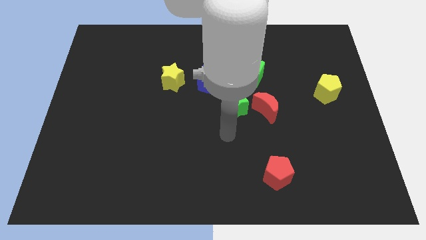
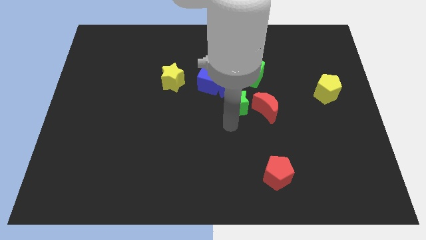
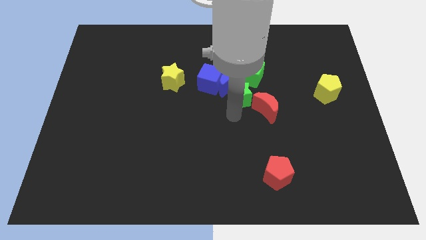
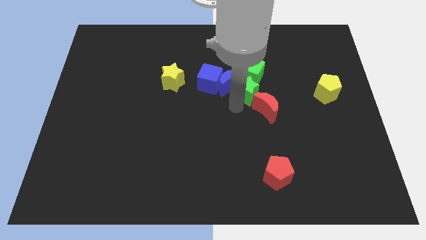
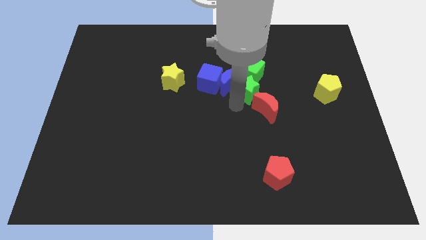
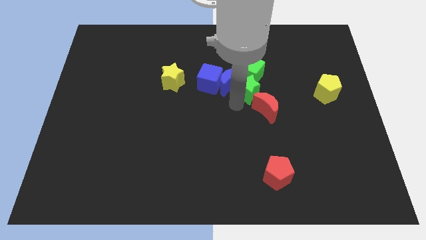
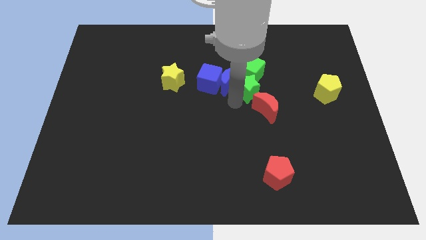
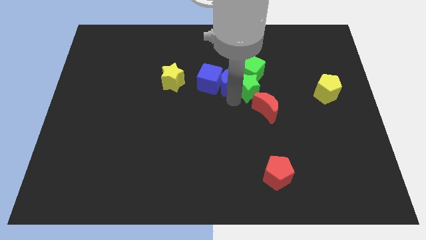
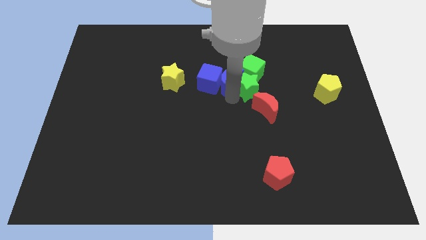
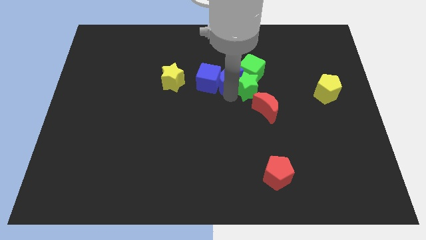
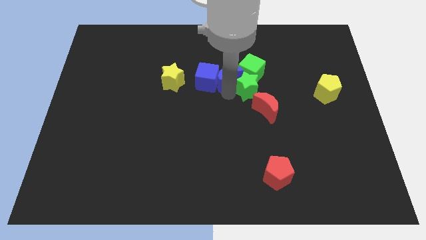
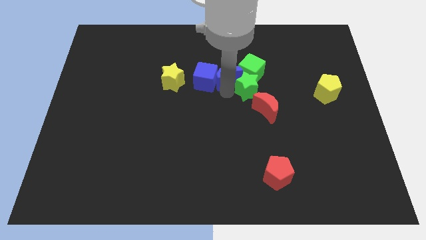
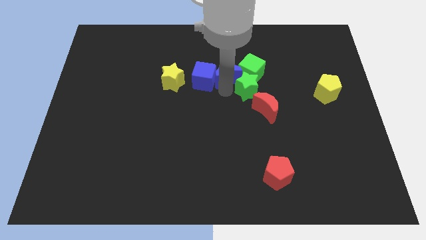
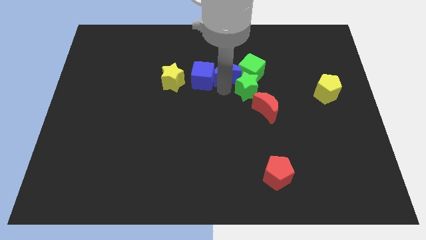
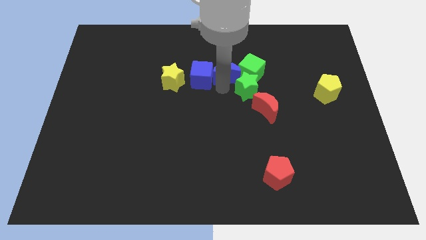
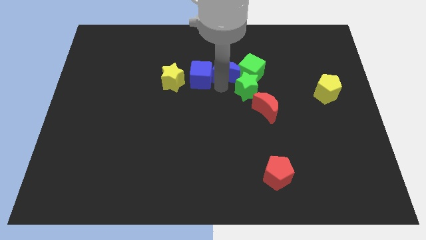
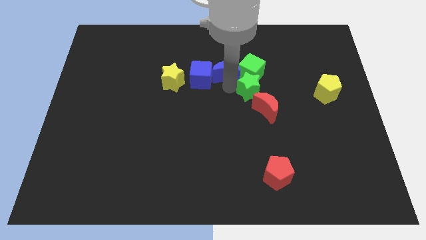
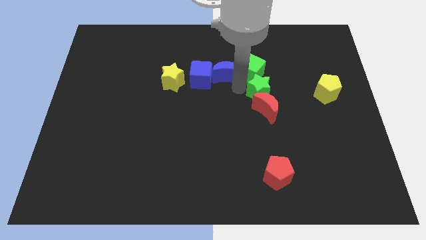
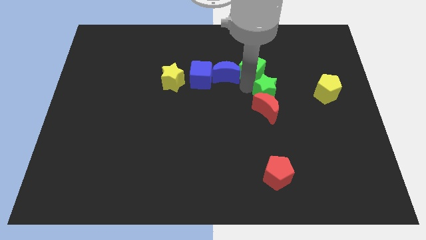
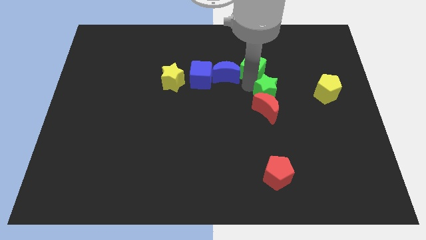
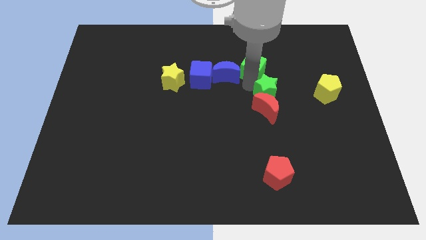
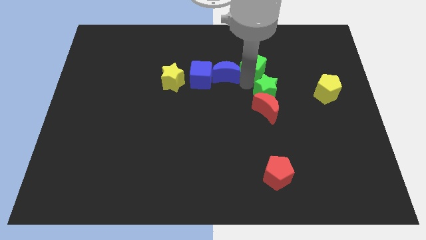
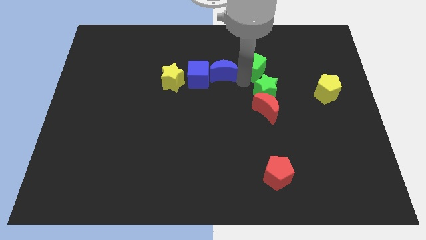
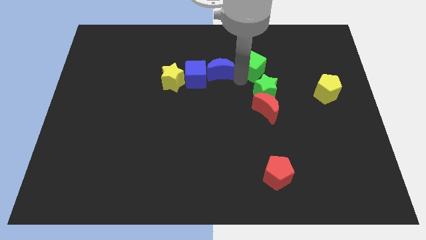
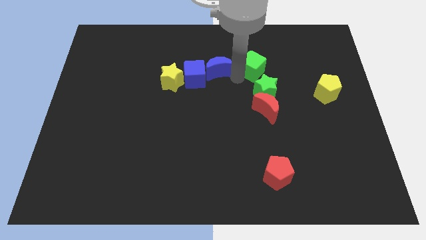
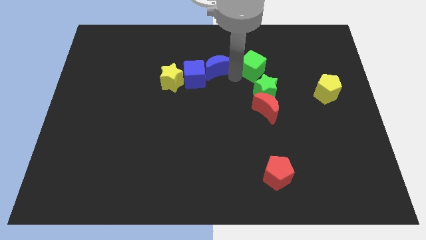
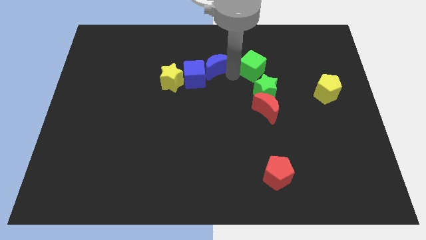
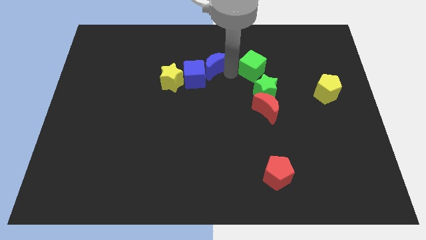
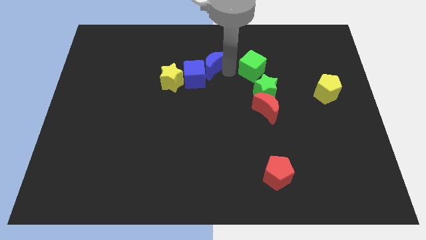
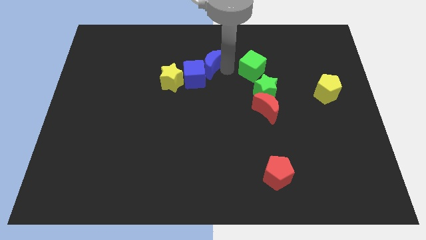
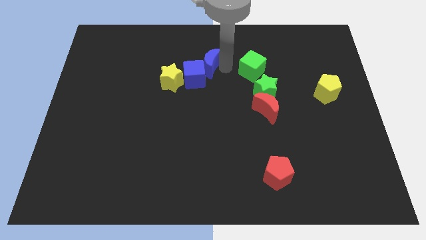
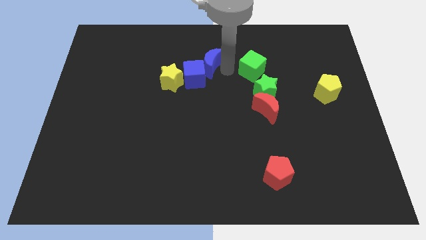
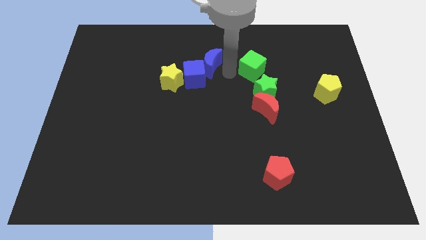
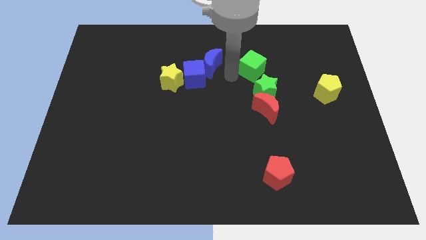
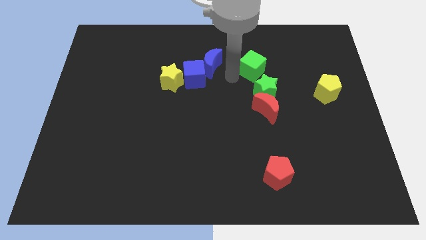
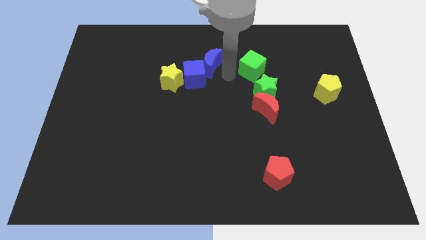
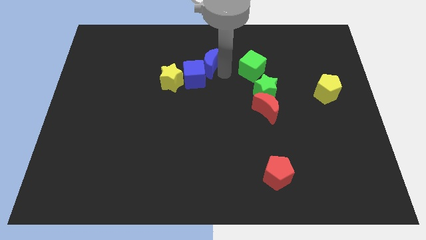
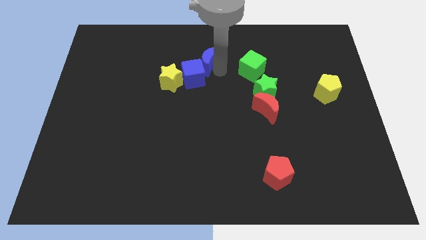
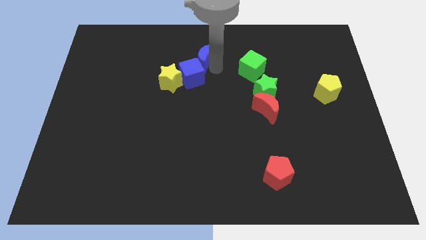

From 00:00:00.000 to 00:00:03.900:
move the blue moon away from the group

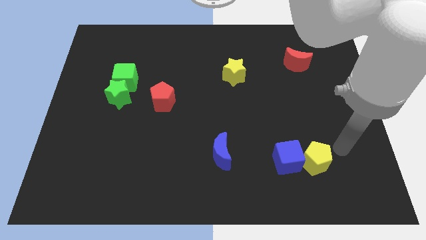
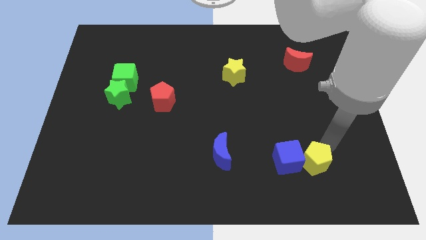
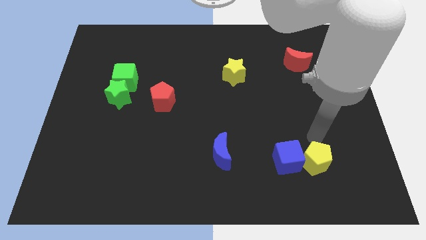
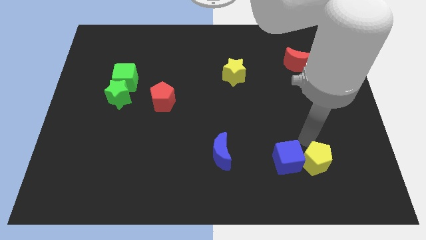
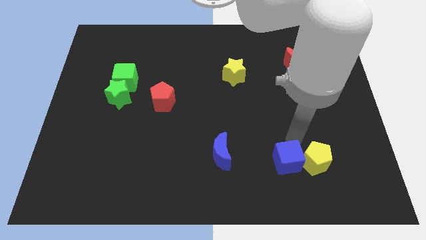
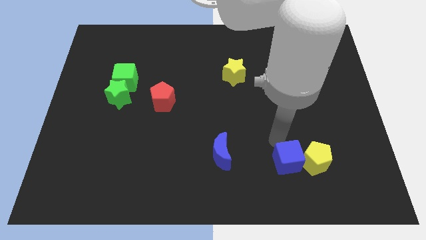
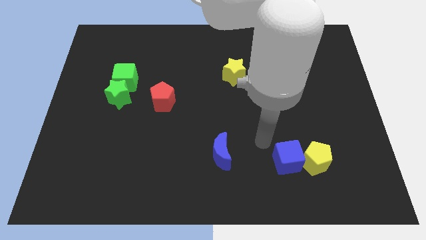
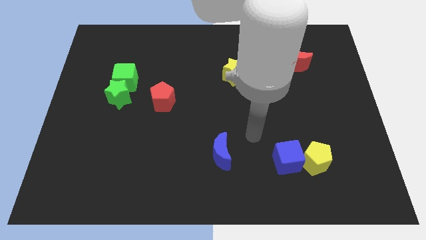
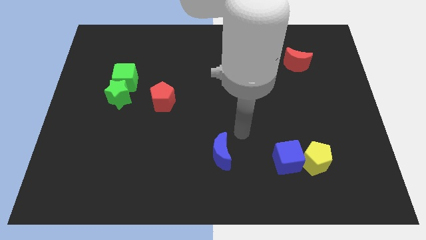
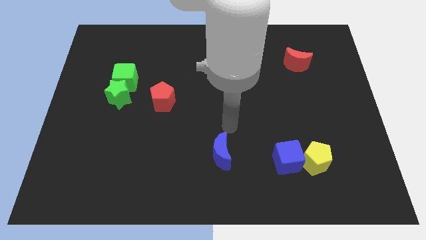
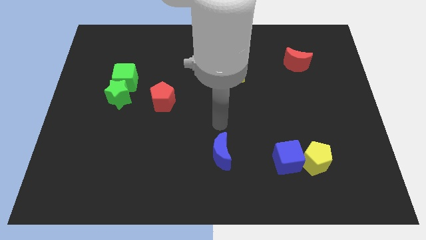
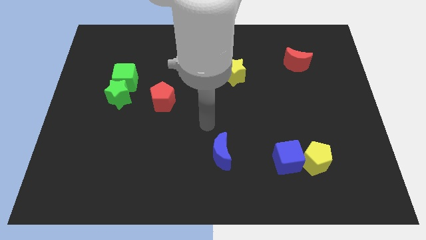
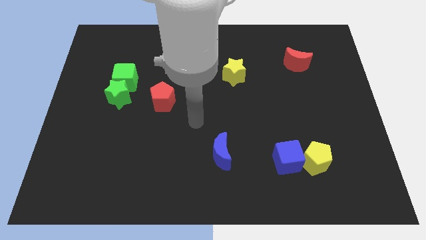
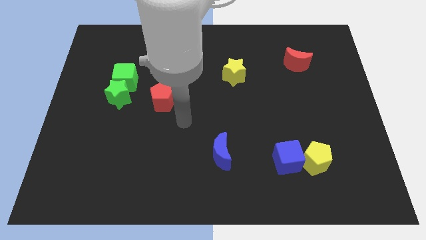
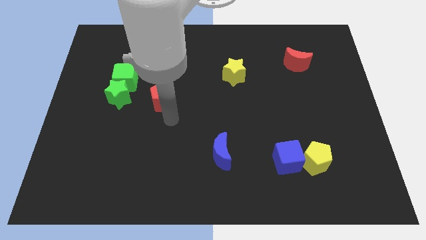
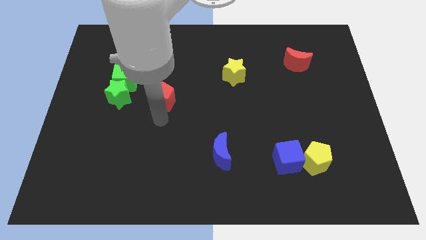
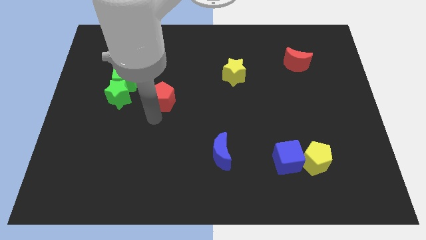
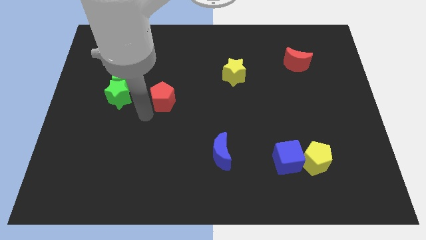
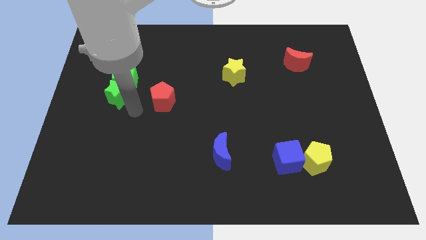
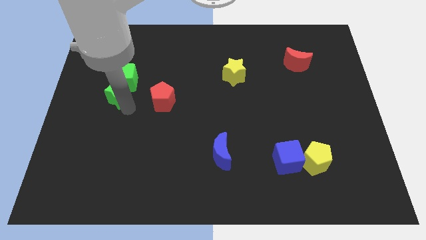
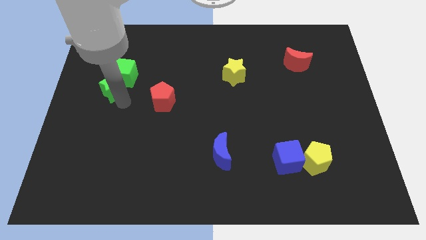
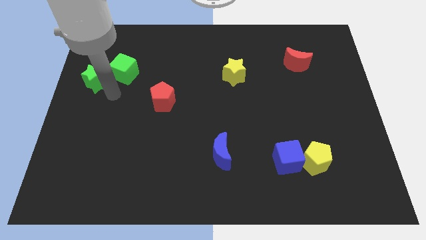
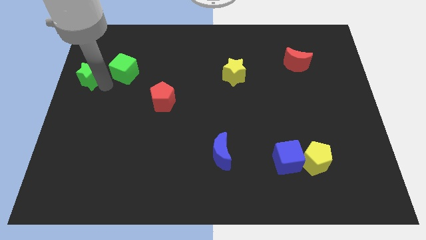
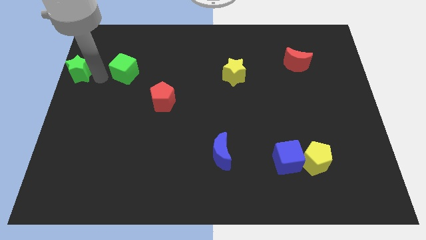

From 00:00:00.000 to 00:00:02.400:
separate the green cube from the green star

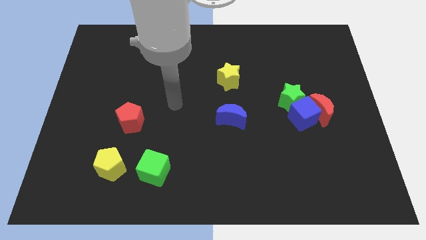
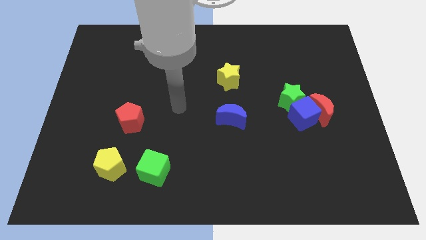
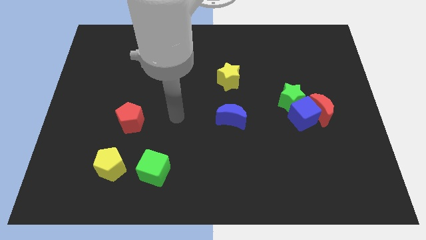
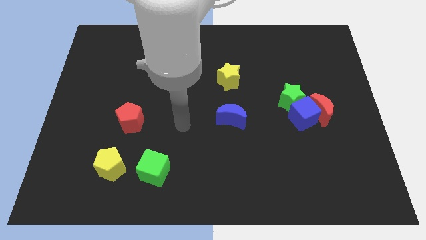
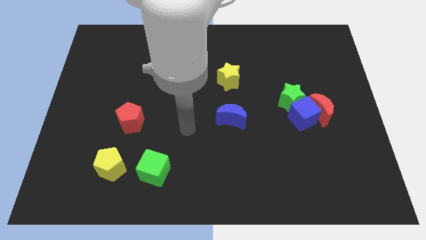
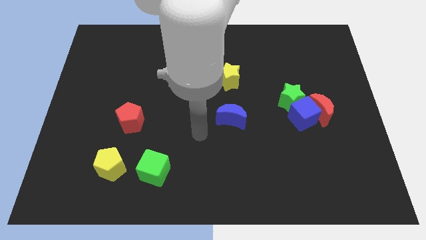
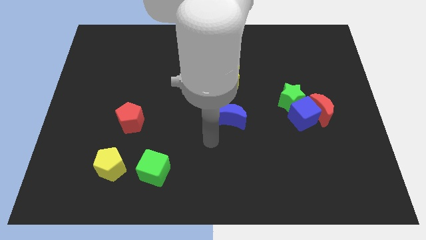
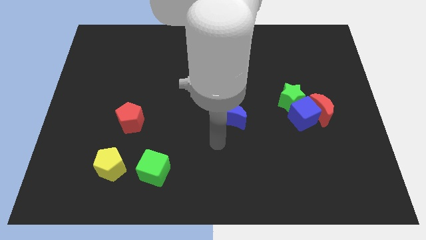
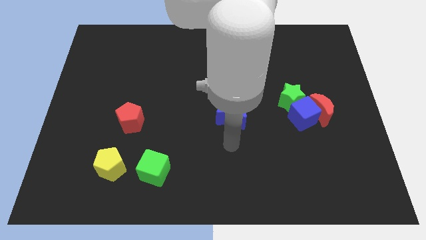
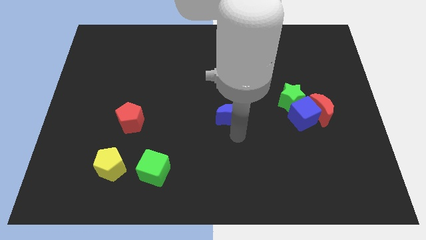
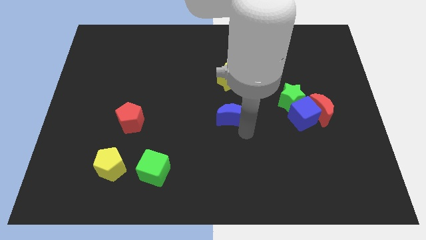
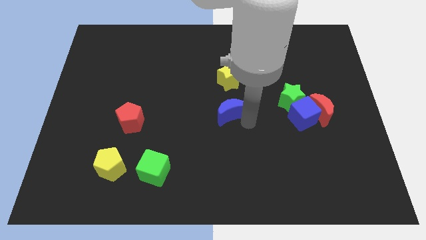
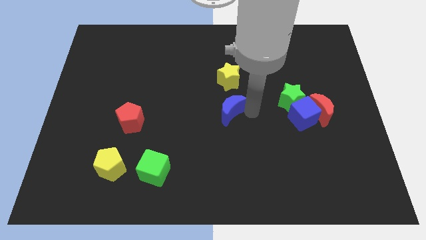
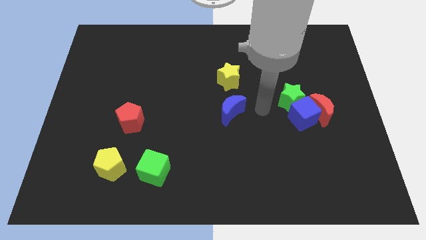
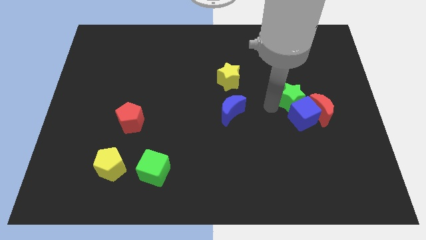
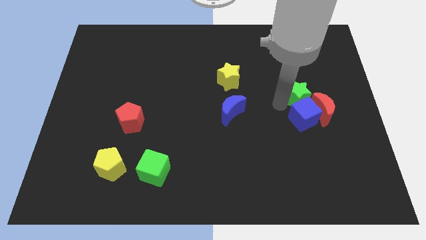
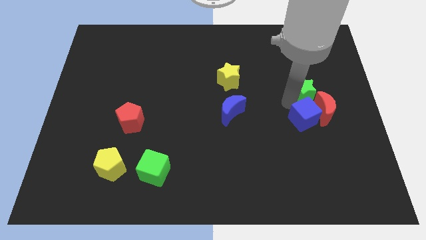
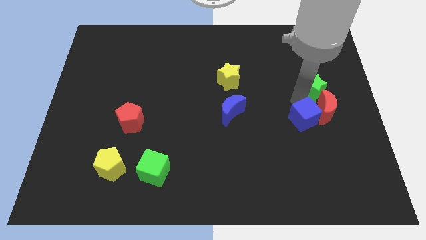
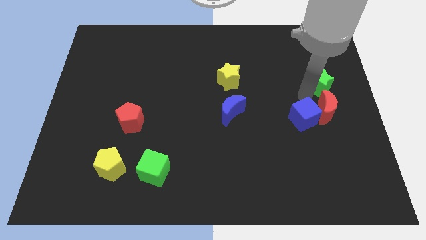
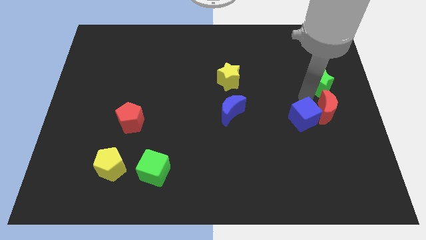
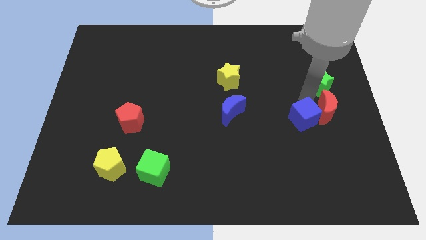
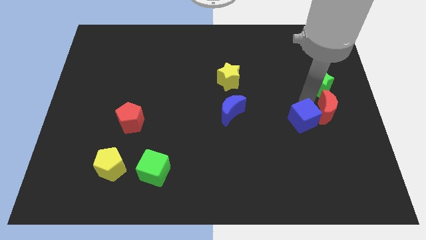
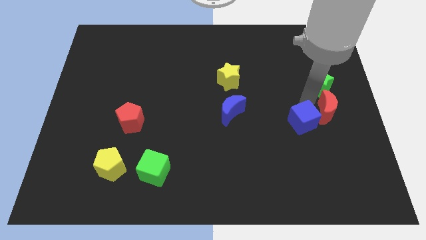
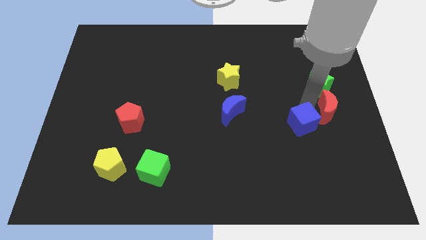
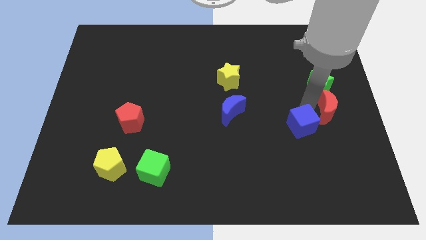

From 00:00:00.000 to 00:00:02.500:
separate the blue cube from the red moon and green star

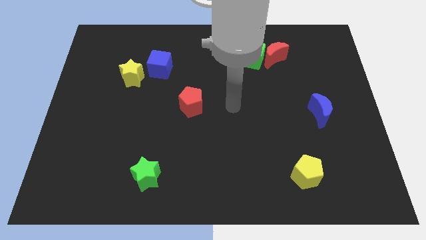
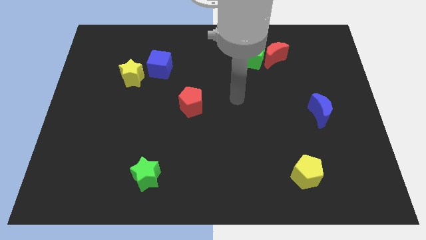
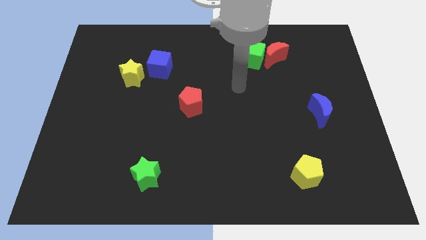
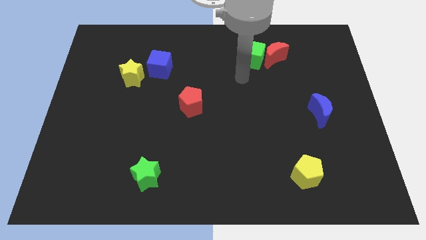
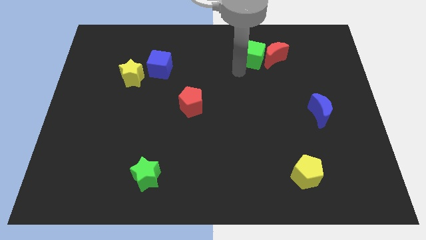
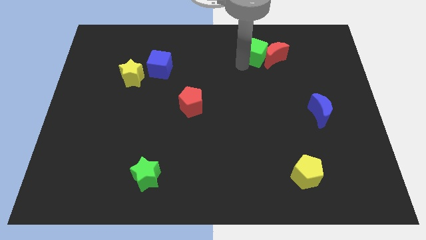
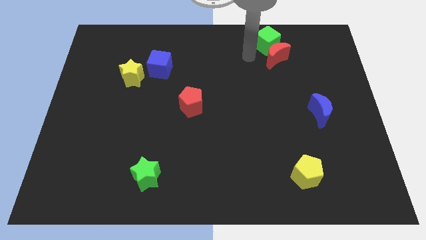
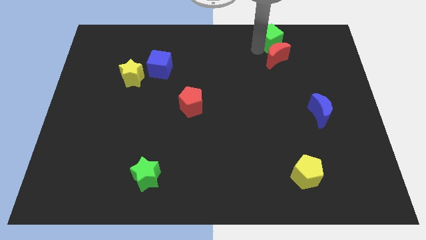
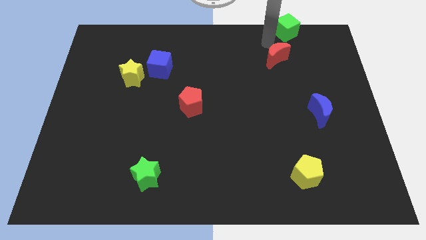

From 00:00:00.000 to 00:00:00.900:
move the red moon away from the green cube
